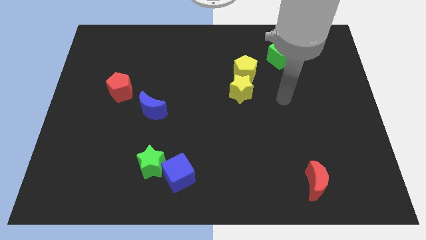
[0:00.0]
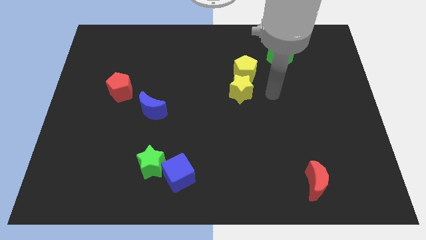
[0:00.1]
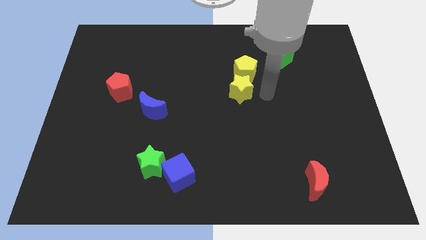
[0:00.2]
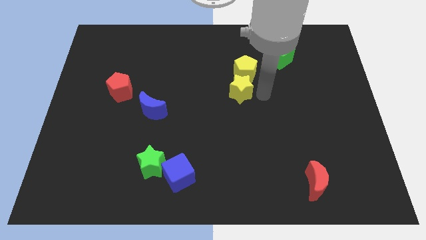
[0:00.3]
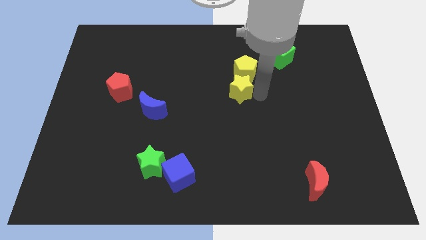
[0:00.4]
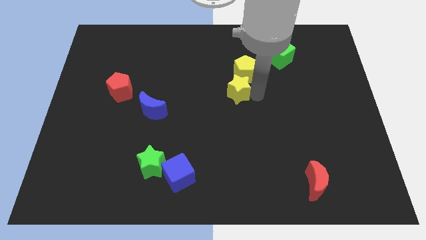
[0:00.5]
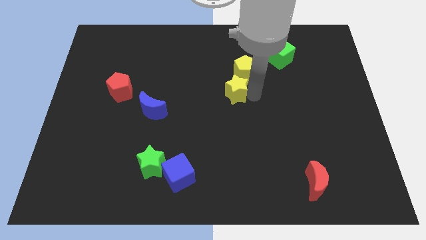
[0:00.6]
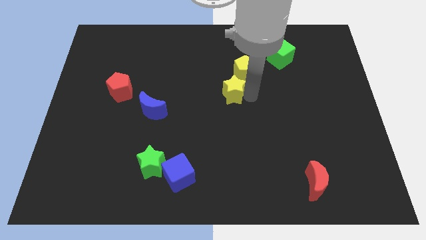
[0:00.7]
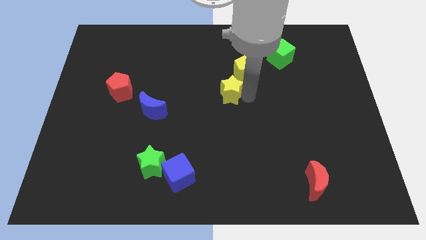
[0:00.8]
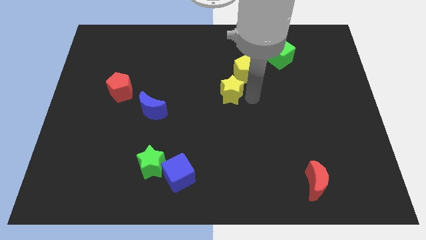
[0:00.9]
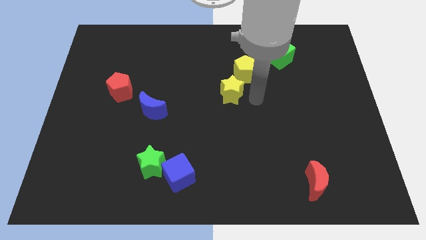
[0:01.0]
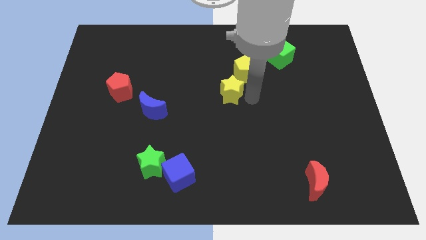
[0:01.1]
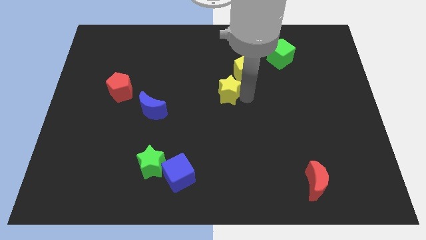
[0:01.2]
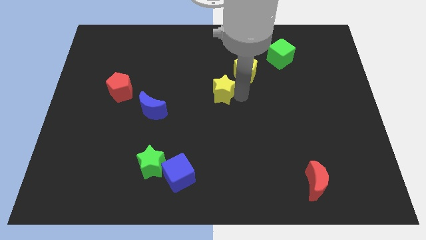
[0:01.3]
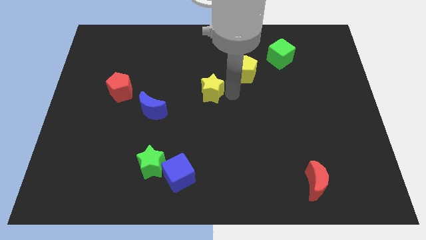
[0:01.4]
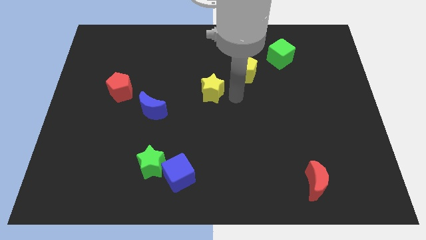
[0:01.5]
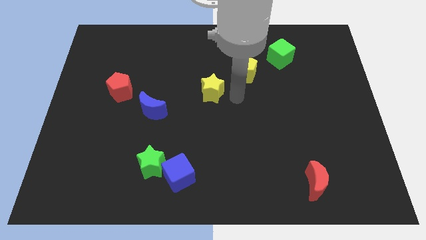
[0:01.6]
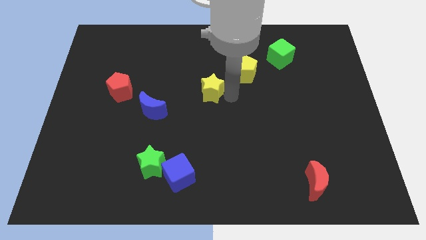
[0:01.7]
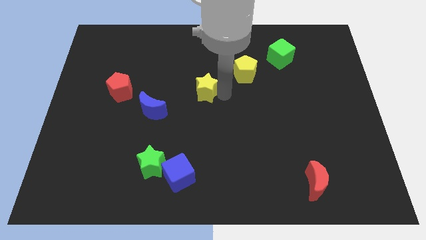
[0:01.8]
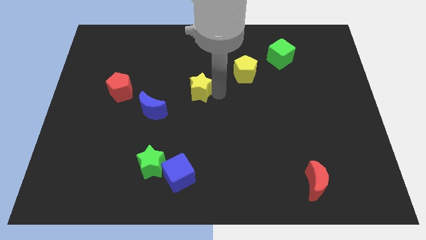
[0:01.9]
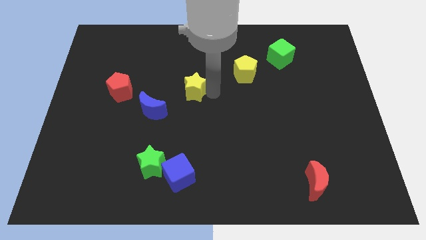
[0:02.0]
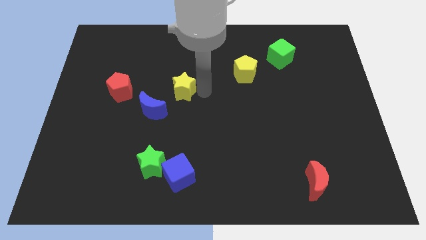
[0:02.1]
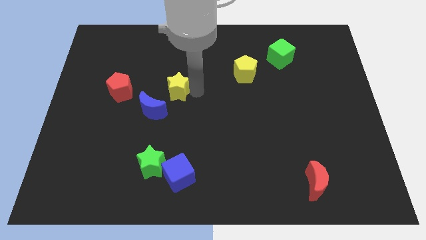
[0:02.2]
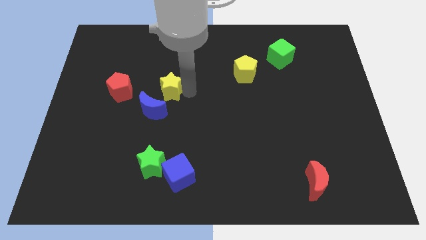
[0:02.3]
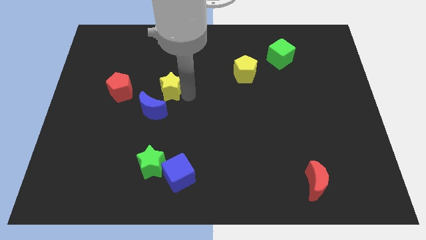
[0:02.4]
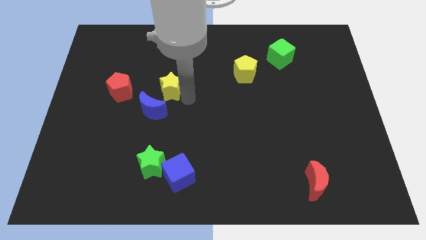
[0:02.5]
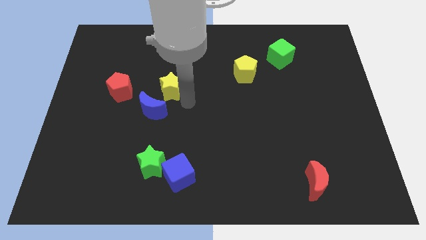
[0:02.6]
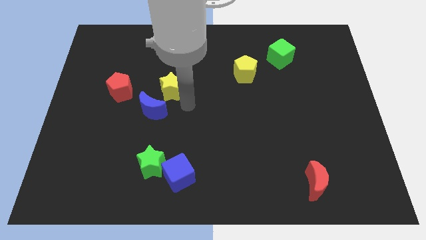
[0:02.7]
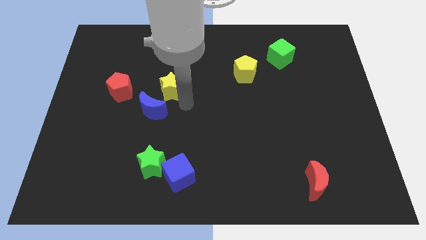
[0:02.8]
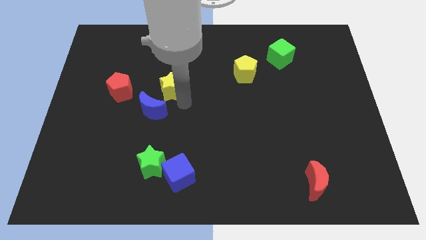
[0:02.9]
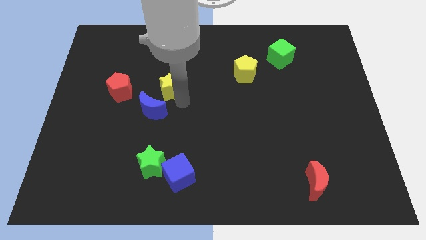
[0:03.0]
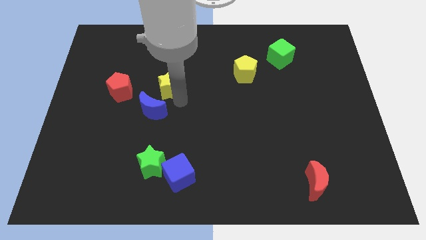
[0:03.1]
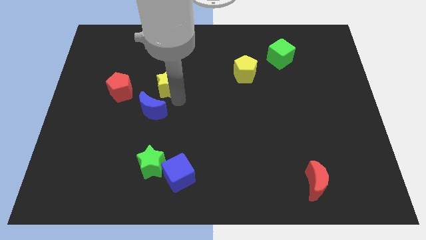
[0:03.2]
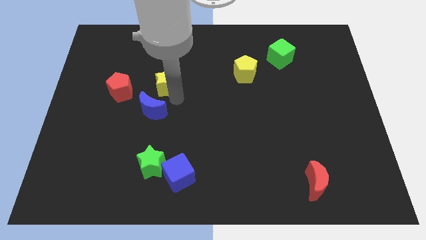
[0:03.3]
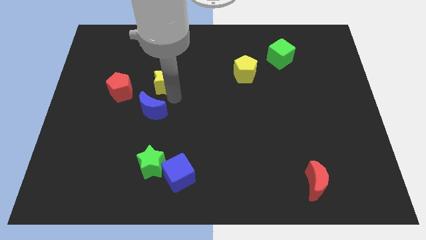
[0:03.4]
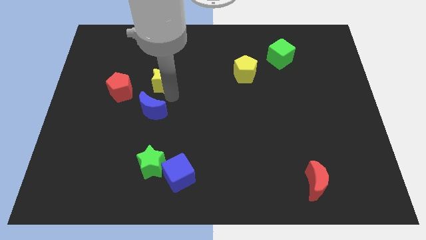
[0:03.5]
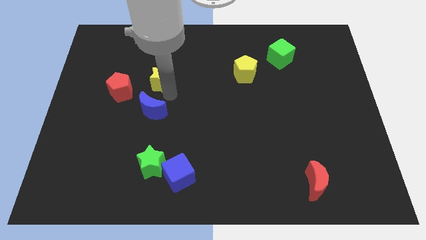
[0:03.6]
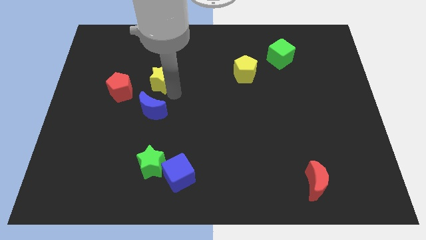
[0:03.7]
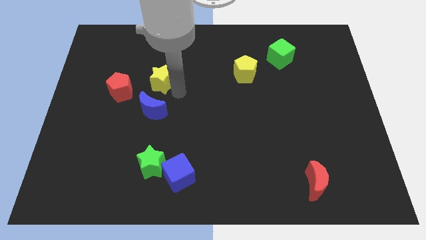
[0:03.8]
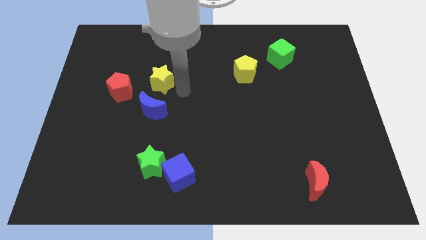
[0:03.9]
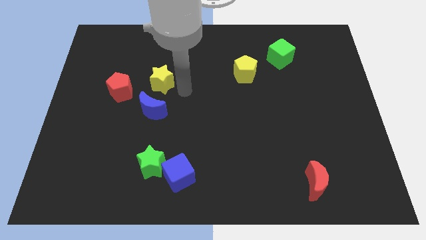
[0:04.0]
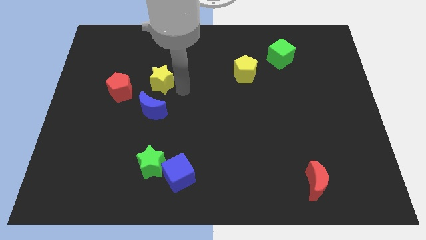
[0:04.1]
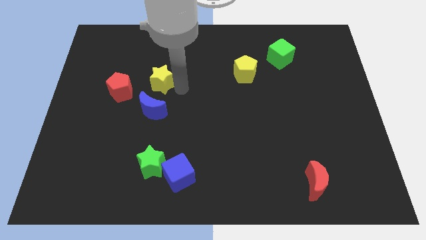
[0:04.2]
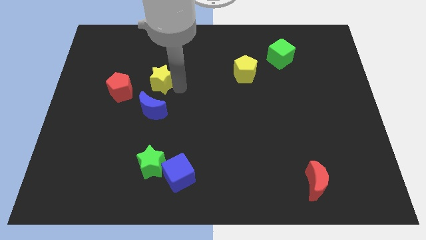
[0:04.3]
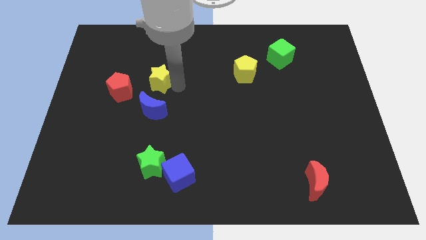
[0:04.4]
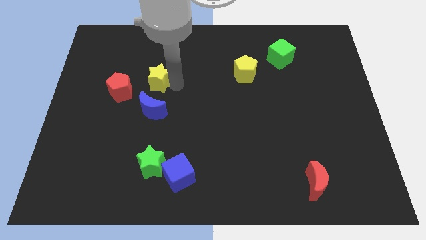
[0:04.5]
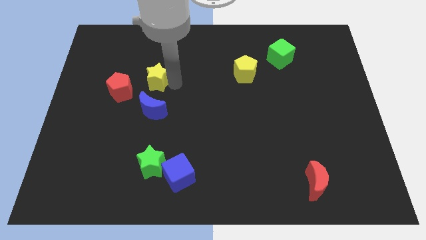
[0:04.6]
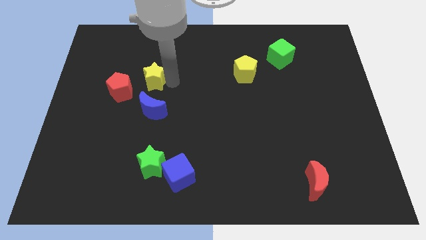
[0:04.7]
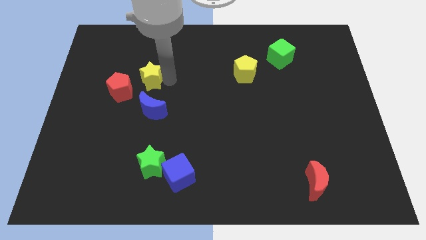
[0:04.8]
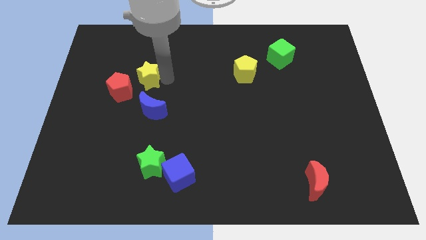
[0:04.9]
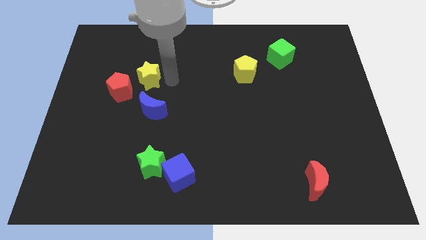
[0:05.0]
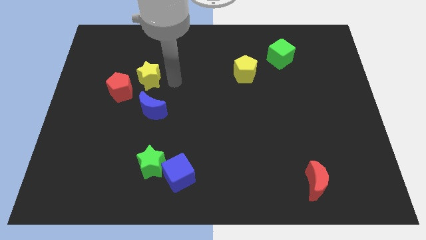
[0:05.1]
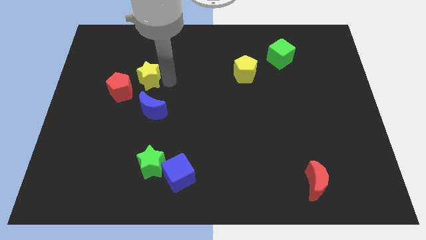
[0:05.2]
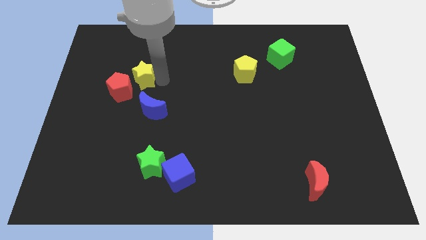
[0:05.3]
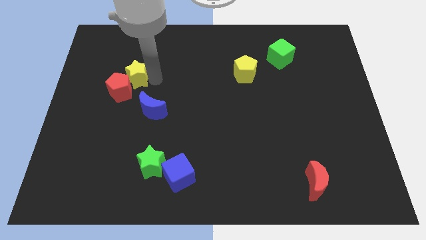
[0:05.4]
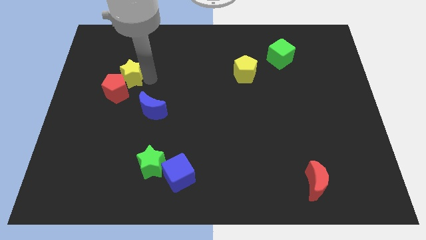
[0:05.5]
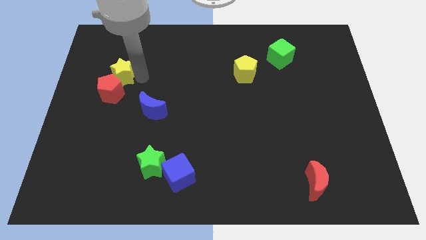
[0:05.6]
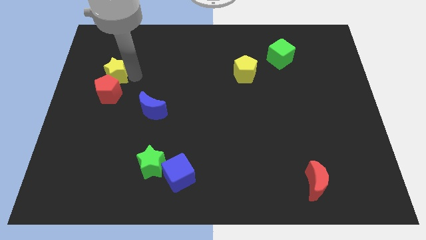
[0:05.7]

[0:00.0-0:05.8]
push the yellow star to the top left side of the red pentagon

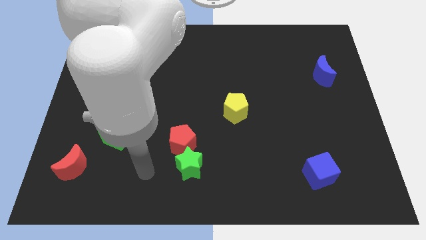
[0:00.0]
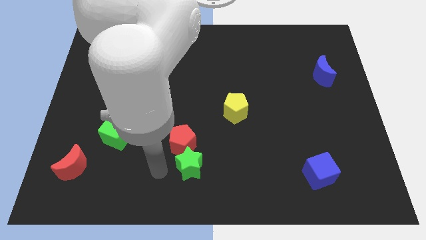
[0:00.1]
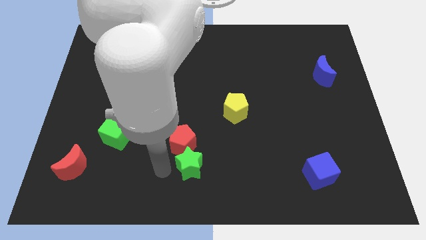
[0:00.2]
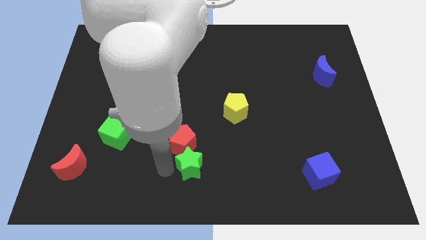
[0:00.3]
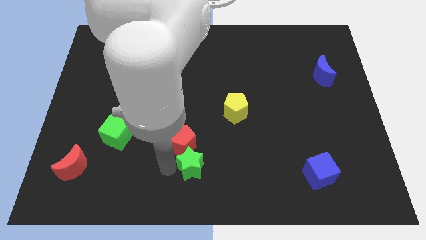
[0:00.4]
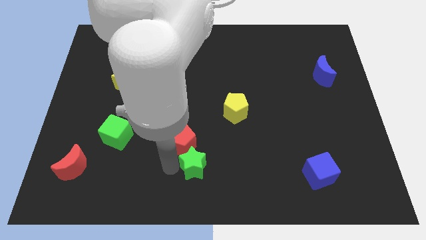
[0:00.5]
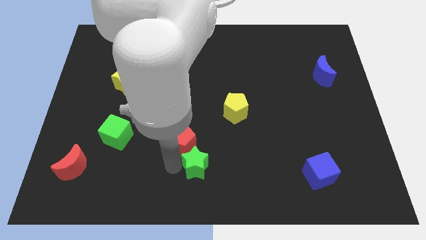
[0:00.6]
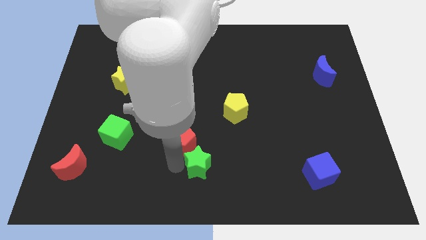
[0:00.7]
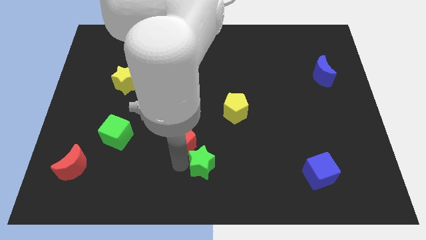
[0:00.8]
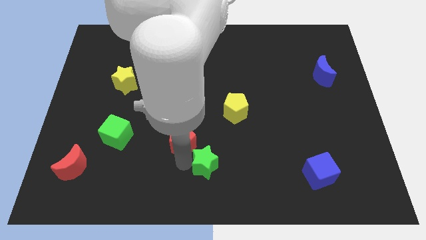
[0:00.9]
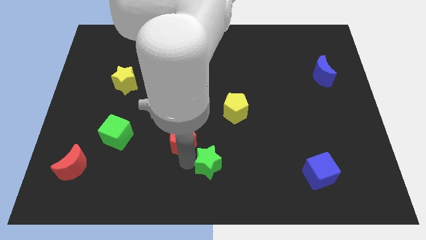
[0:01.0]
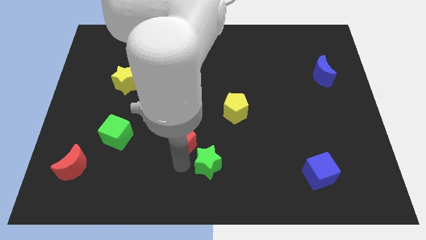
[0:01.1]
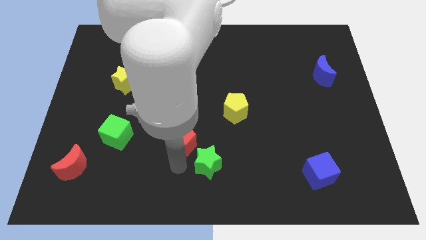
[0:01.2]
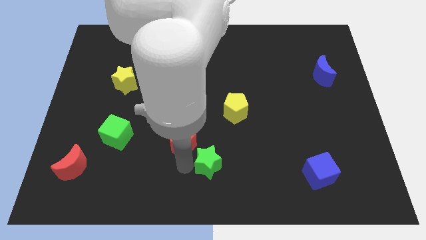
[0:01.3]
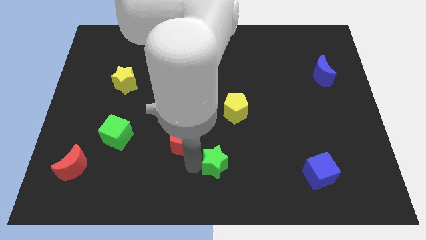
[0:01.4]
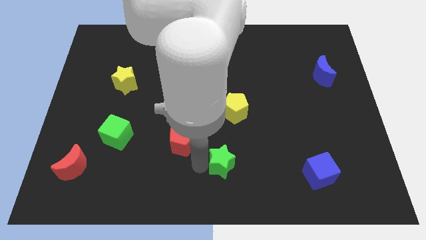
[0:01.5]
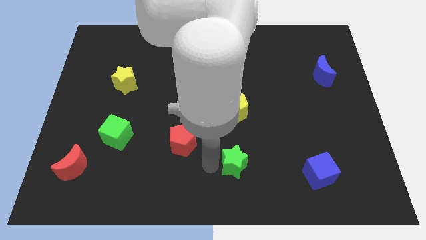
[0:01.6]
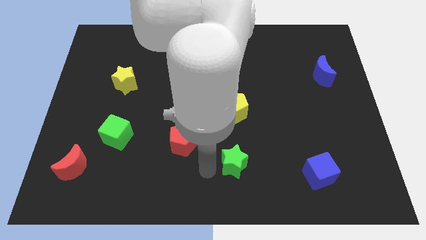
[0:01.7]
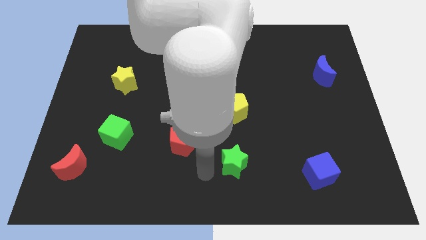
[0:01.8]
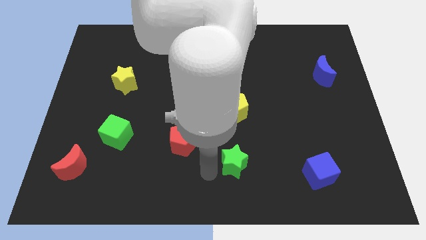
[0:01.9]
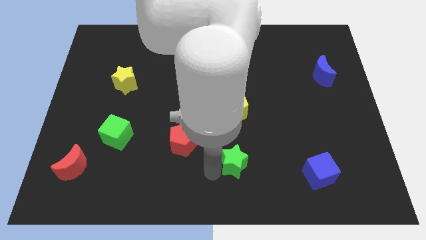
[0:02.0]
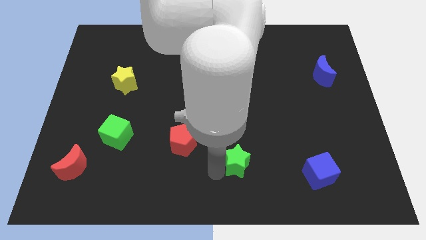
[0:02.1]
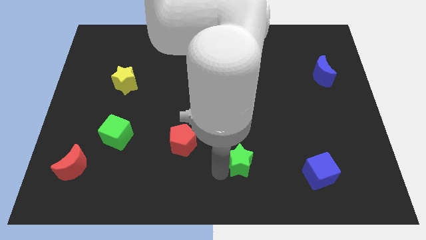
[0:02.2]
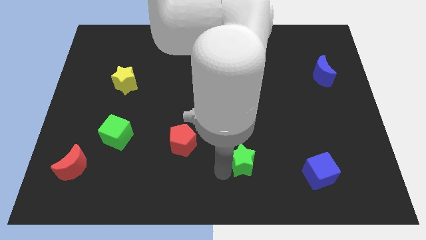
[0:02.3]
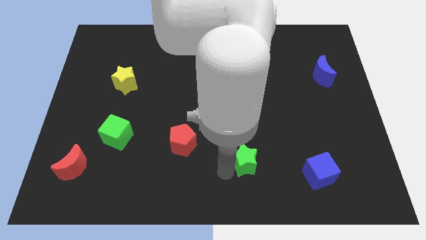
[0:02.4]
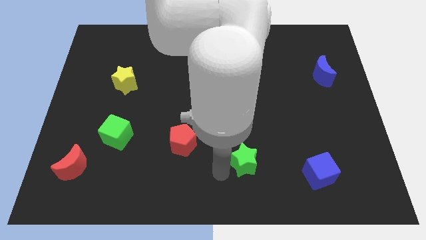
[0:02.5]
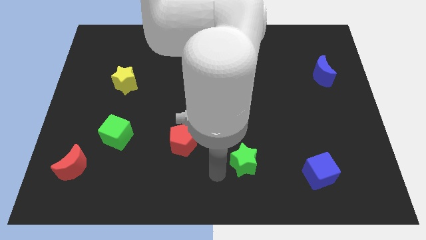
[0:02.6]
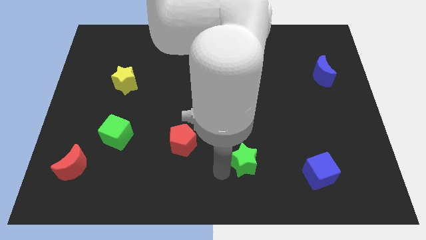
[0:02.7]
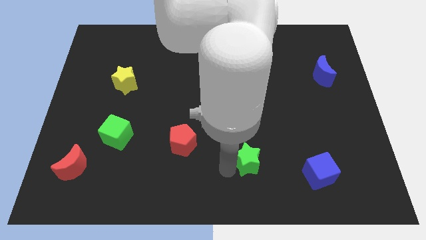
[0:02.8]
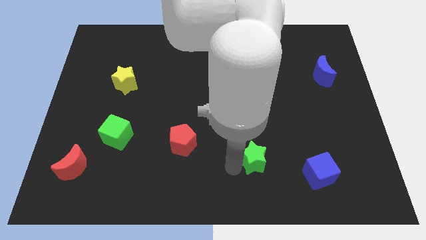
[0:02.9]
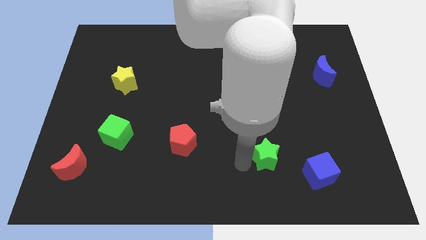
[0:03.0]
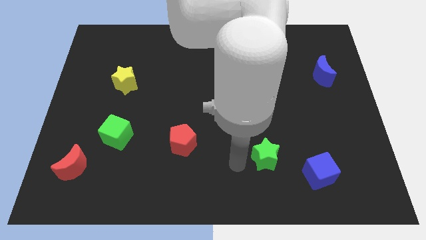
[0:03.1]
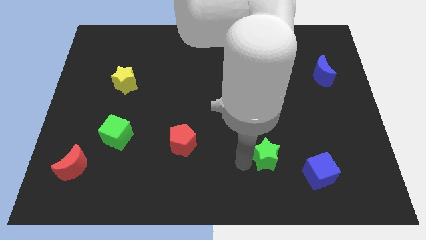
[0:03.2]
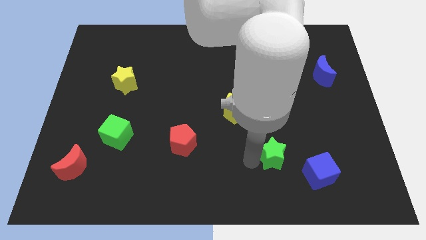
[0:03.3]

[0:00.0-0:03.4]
put the green star diagonally up and to the left of the blue cube
